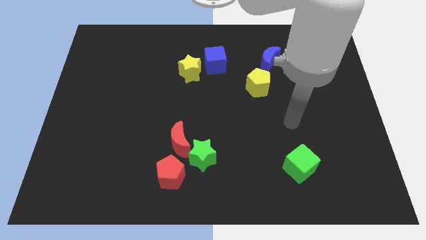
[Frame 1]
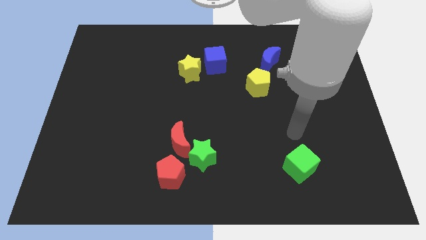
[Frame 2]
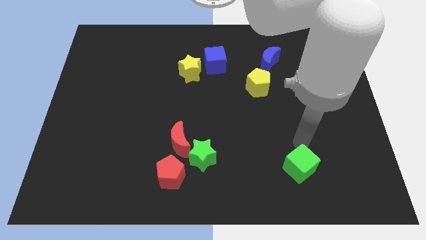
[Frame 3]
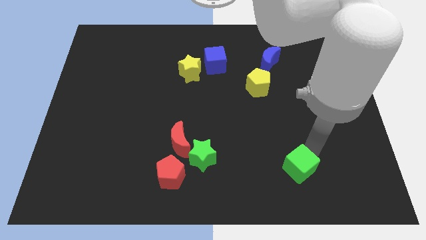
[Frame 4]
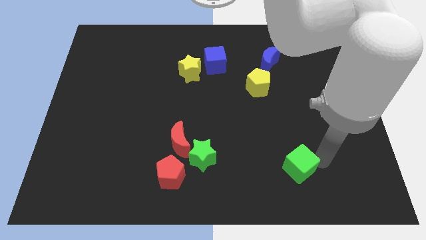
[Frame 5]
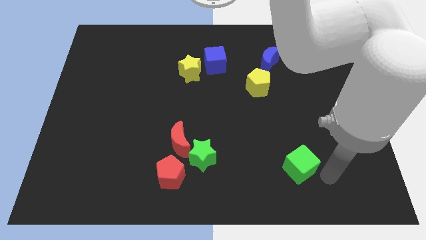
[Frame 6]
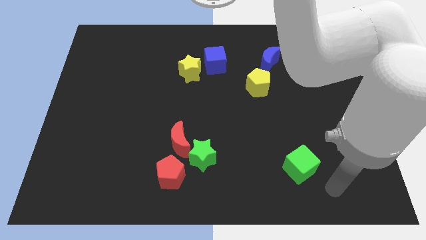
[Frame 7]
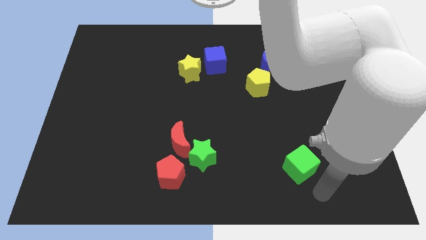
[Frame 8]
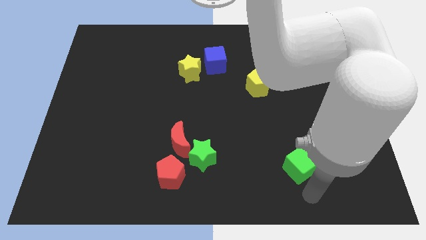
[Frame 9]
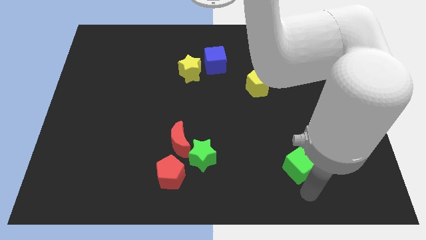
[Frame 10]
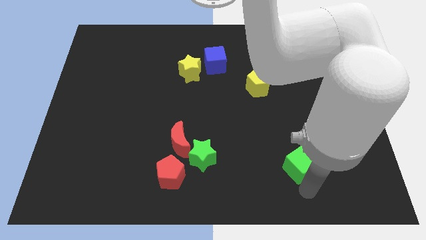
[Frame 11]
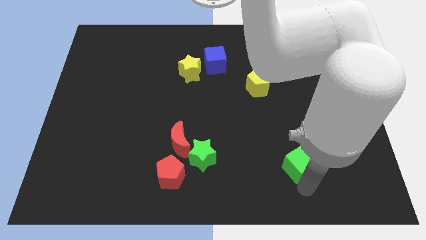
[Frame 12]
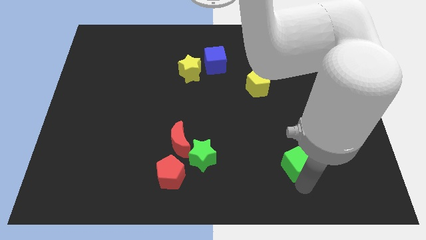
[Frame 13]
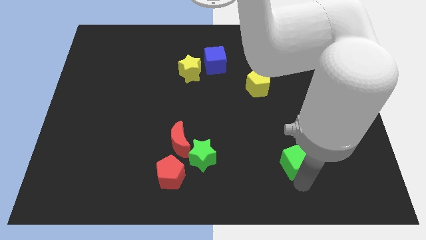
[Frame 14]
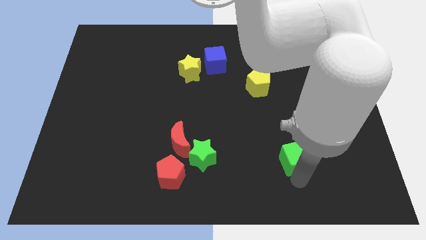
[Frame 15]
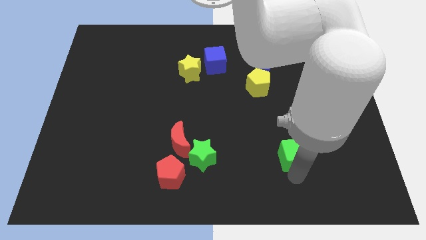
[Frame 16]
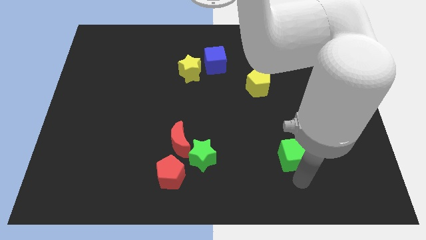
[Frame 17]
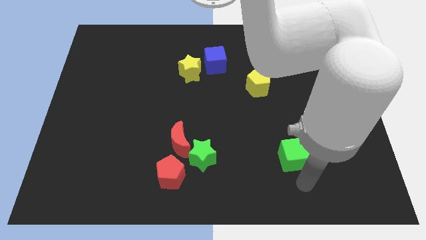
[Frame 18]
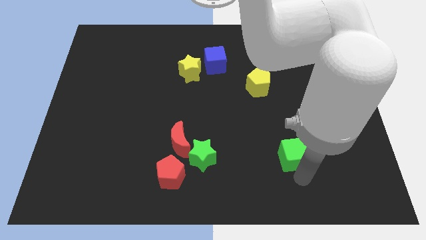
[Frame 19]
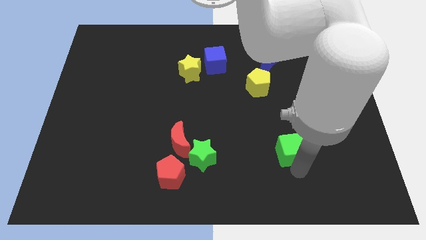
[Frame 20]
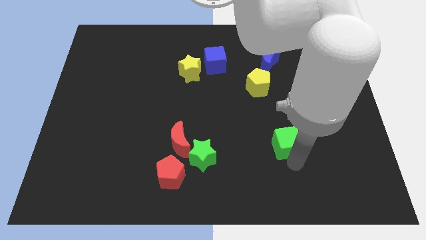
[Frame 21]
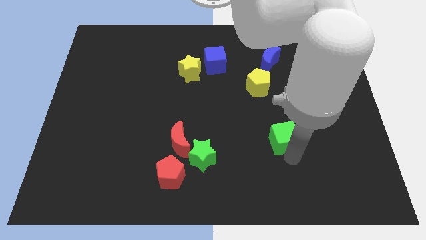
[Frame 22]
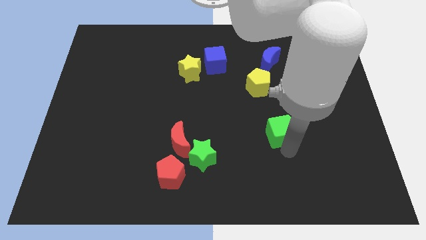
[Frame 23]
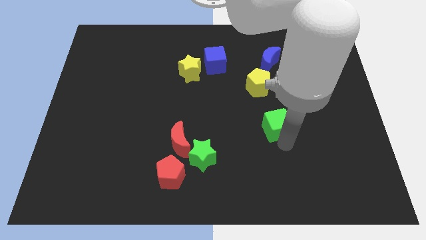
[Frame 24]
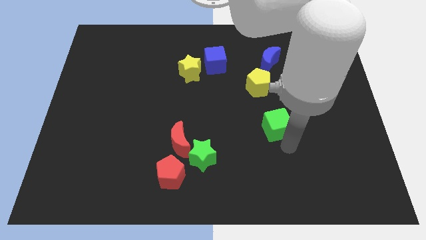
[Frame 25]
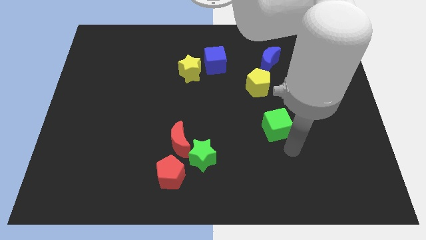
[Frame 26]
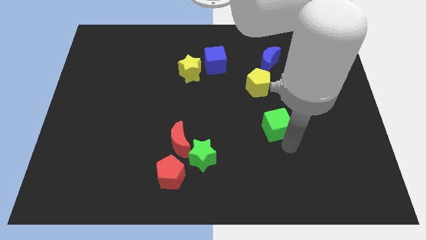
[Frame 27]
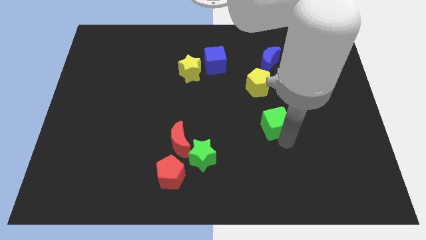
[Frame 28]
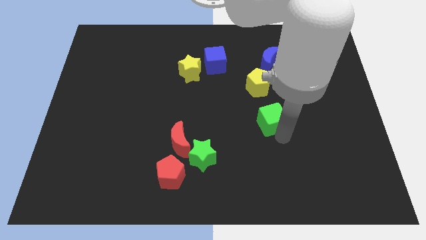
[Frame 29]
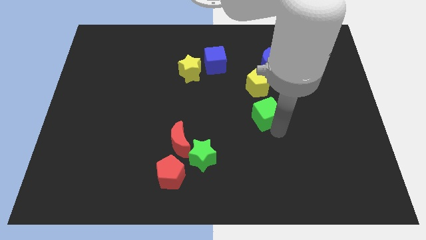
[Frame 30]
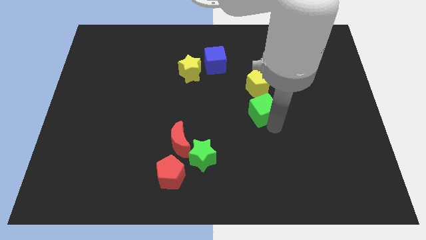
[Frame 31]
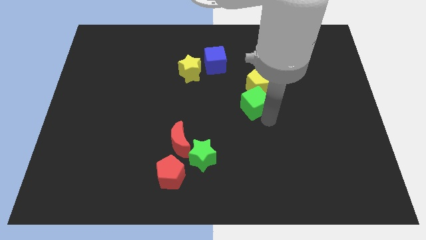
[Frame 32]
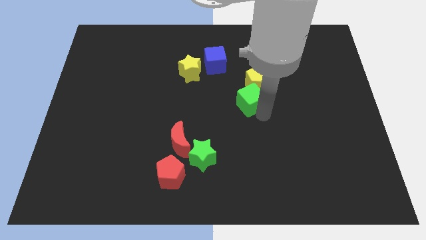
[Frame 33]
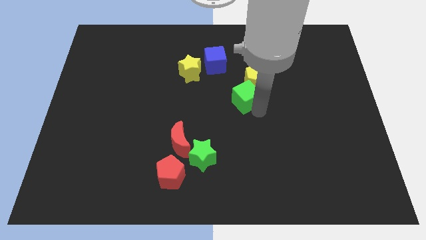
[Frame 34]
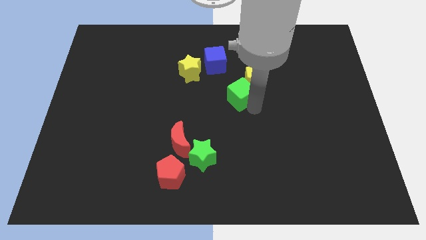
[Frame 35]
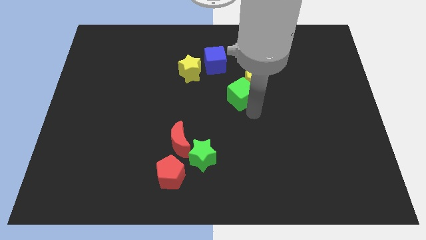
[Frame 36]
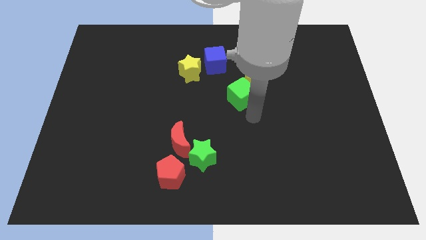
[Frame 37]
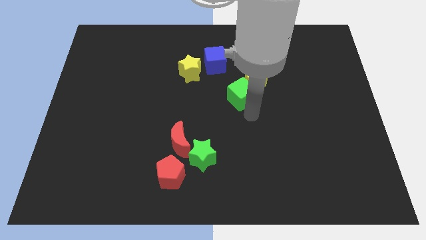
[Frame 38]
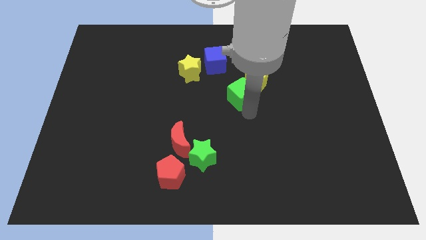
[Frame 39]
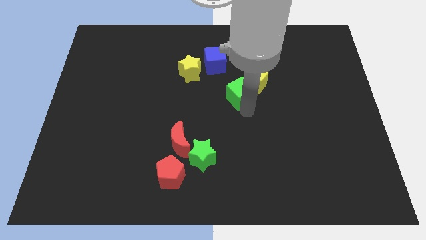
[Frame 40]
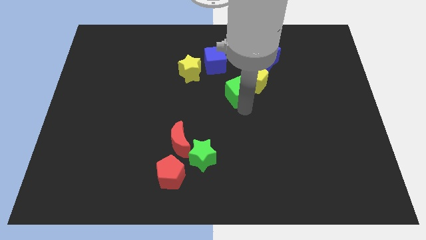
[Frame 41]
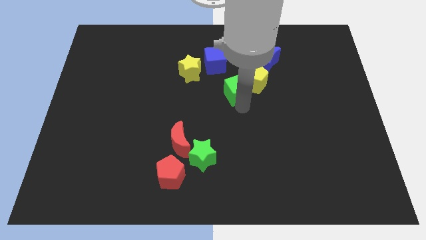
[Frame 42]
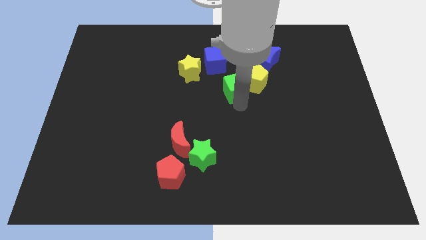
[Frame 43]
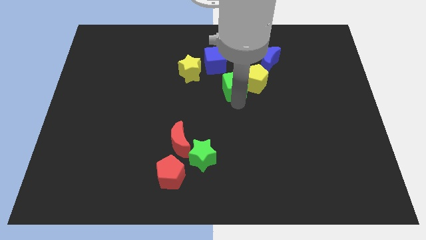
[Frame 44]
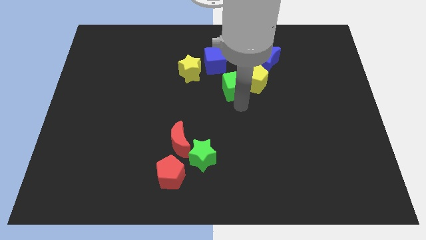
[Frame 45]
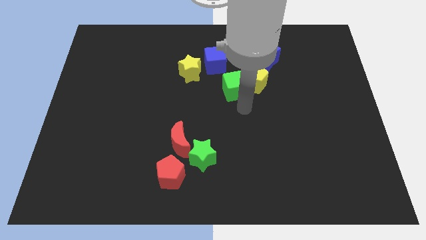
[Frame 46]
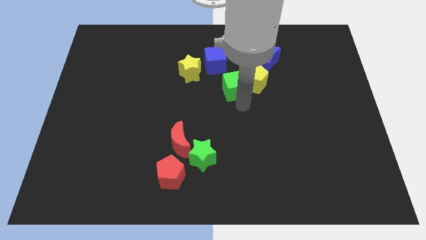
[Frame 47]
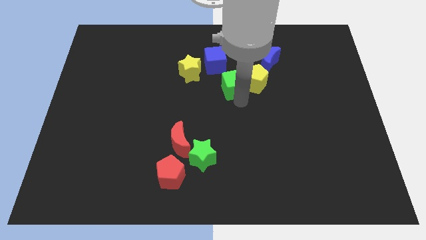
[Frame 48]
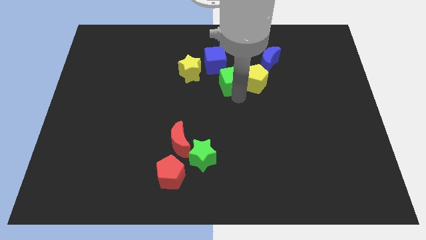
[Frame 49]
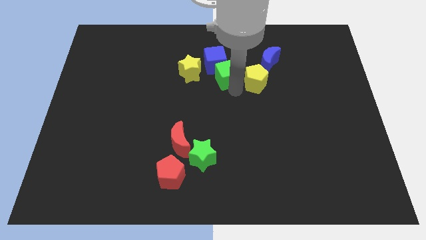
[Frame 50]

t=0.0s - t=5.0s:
move the green cube next to the blue cube

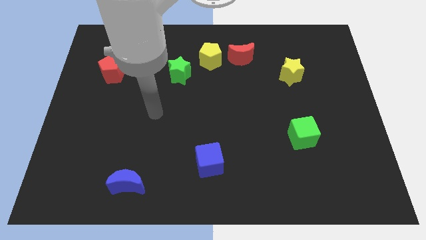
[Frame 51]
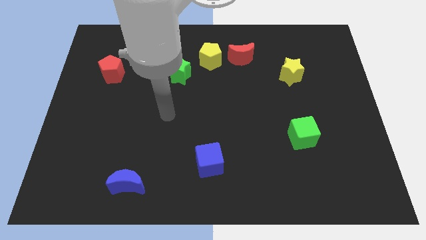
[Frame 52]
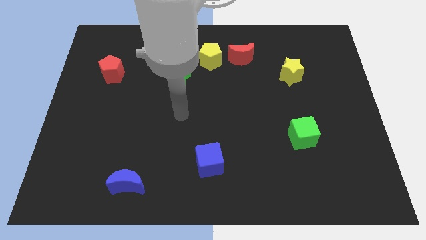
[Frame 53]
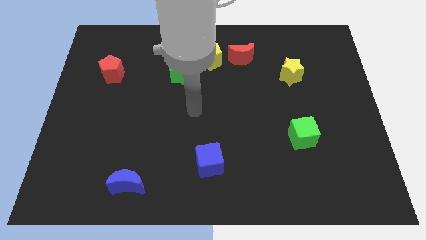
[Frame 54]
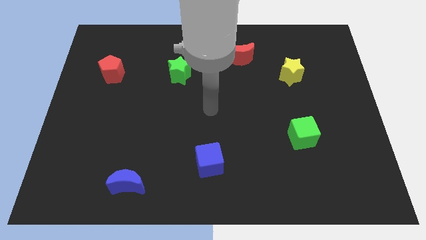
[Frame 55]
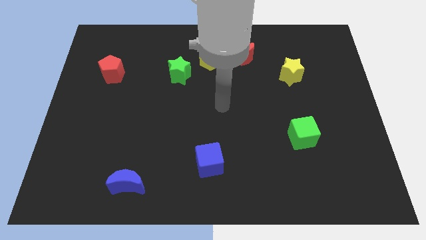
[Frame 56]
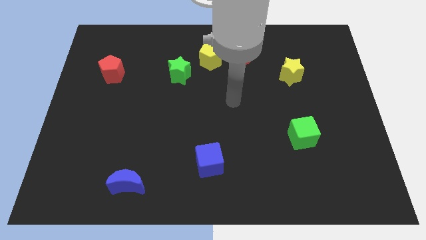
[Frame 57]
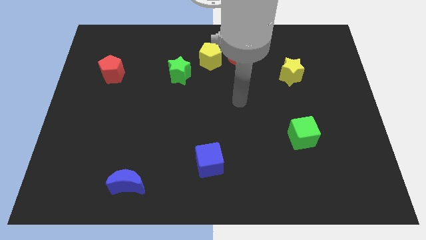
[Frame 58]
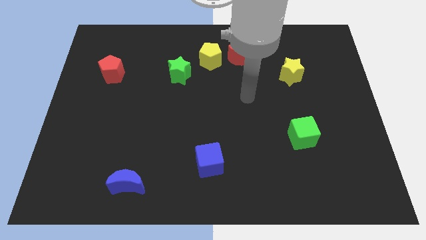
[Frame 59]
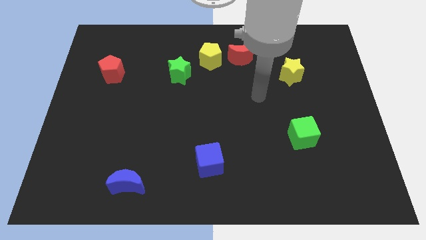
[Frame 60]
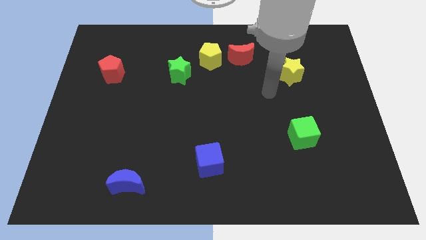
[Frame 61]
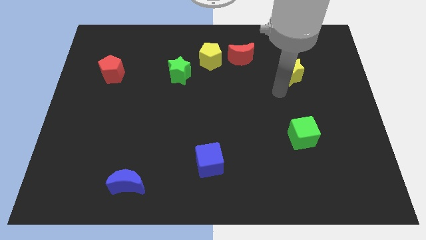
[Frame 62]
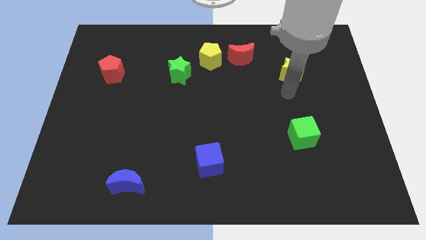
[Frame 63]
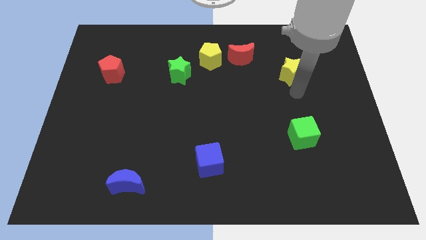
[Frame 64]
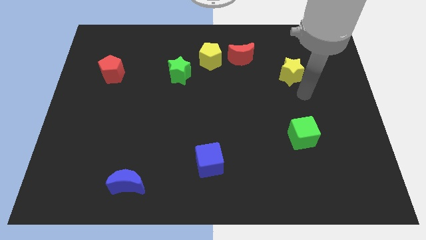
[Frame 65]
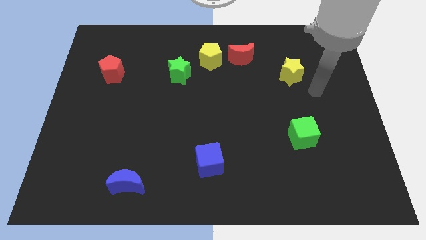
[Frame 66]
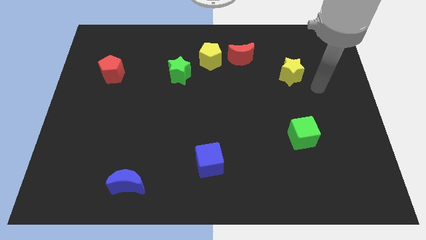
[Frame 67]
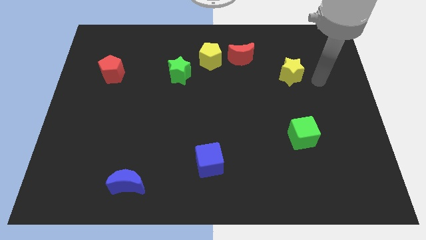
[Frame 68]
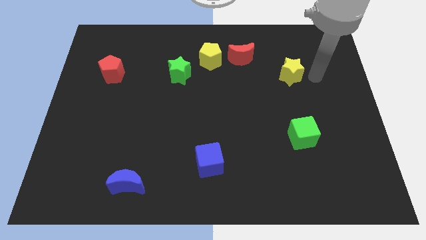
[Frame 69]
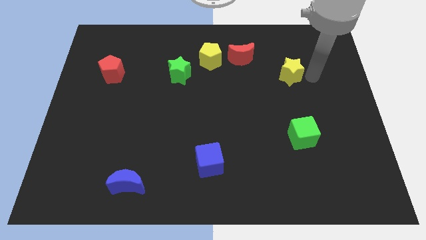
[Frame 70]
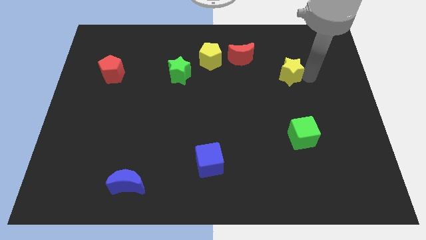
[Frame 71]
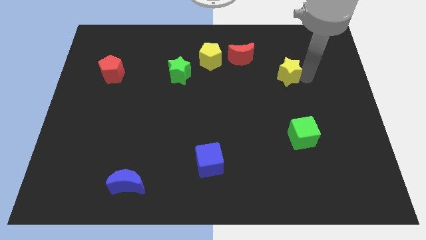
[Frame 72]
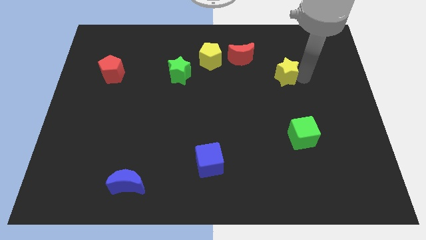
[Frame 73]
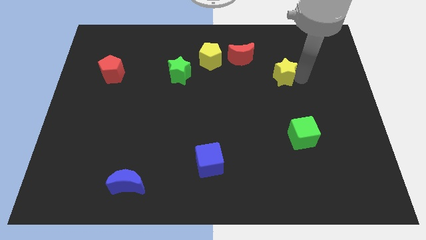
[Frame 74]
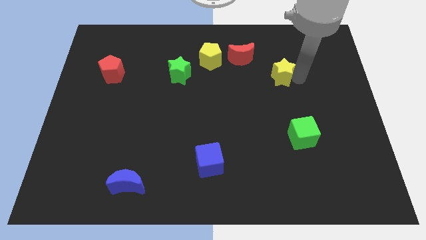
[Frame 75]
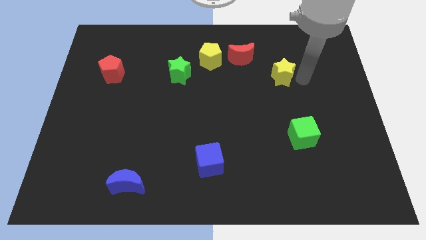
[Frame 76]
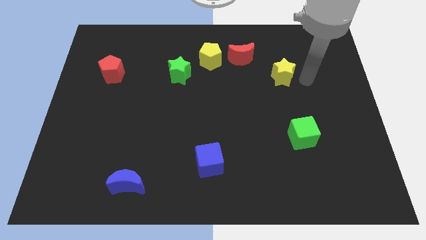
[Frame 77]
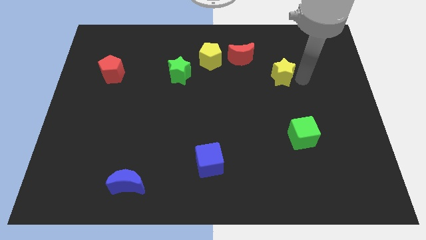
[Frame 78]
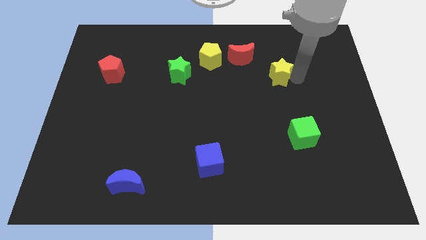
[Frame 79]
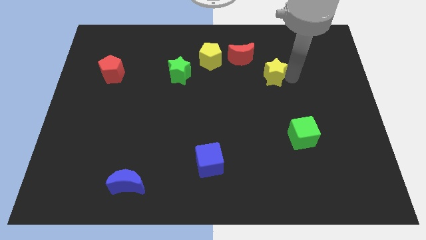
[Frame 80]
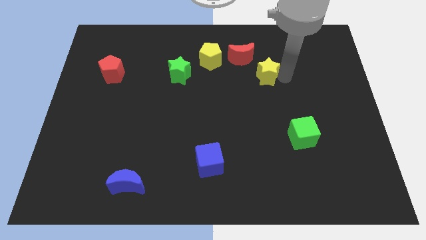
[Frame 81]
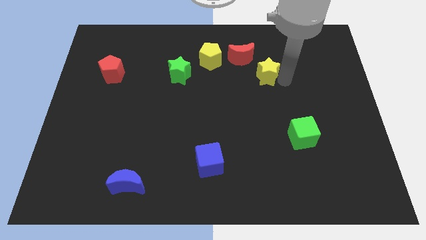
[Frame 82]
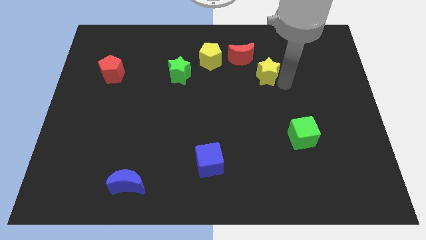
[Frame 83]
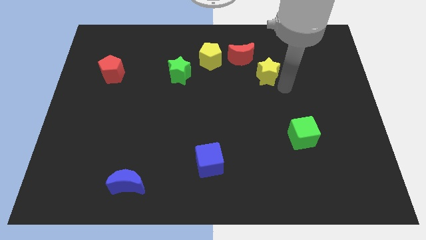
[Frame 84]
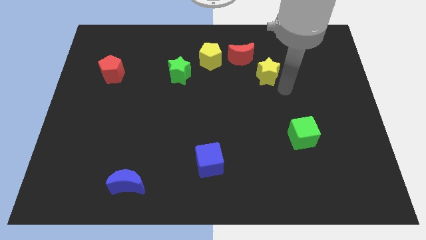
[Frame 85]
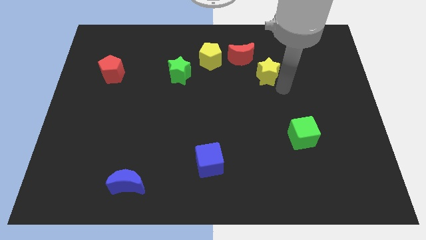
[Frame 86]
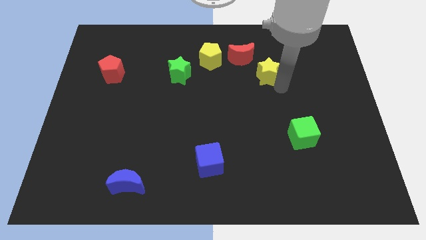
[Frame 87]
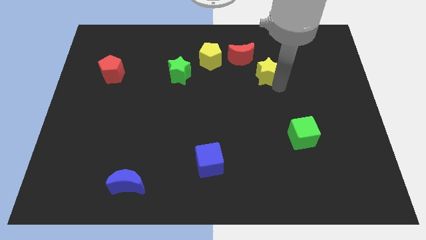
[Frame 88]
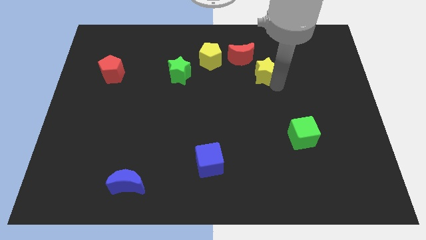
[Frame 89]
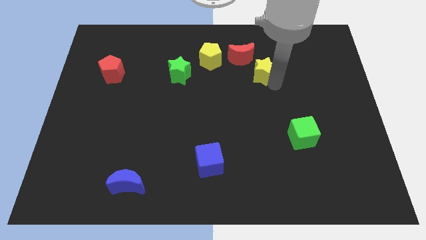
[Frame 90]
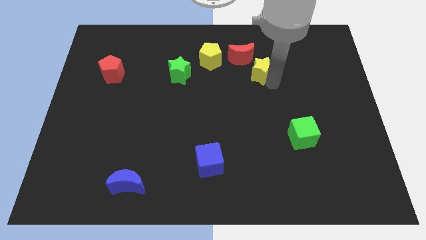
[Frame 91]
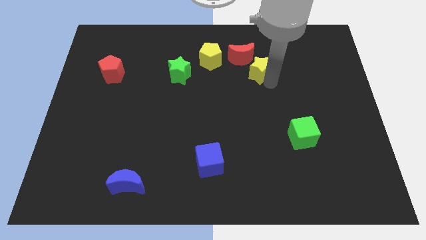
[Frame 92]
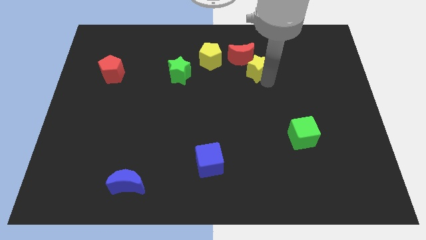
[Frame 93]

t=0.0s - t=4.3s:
slide the yellow star close to the red moon
